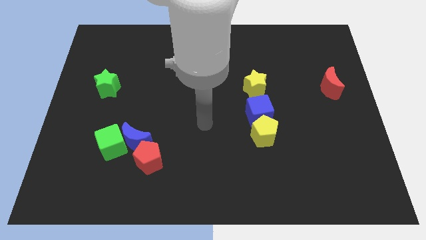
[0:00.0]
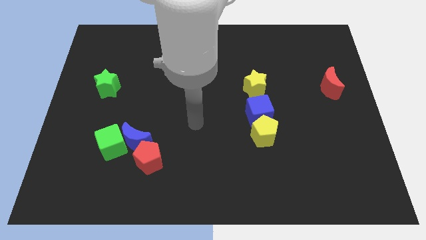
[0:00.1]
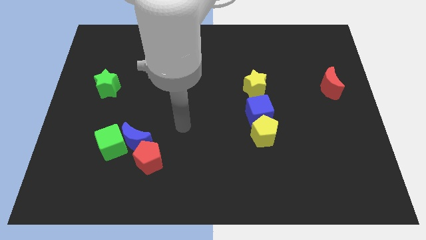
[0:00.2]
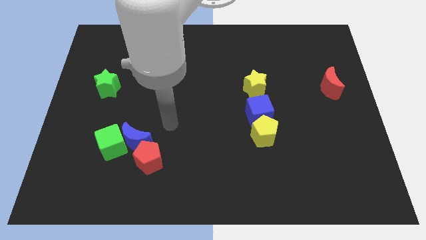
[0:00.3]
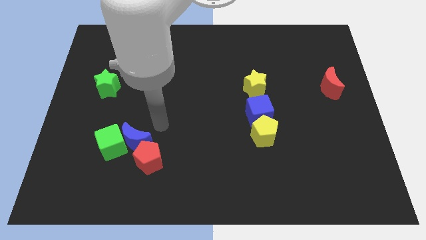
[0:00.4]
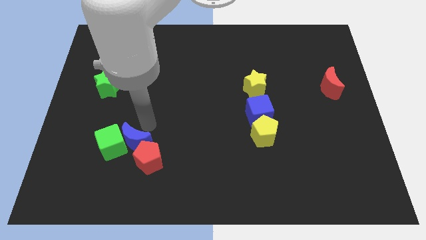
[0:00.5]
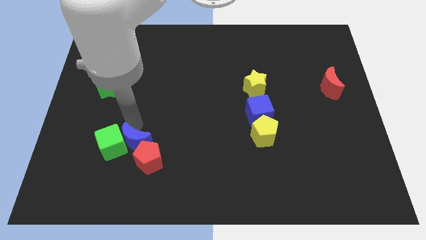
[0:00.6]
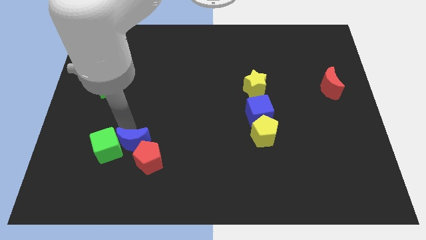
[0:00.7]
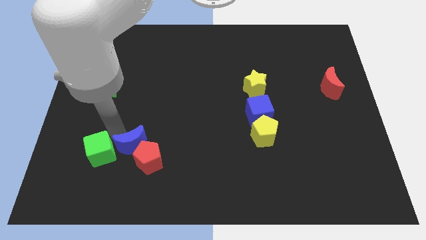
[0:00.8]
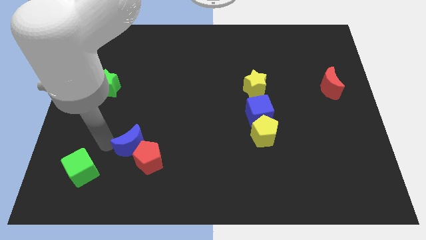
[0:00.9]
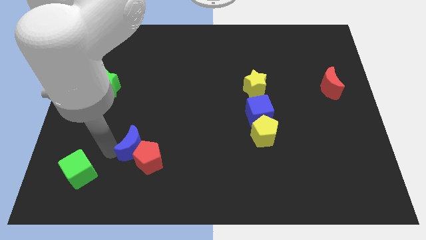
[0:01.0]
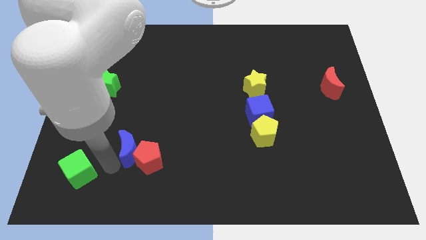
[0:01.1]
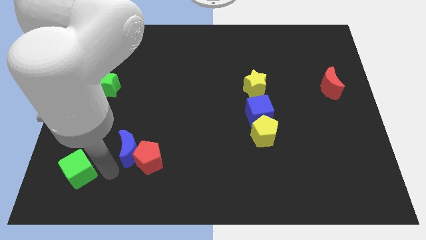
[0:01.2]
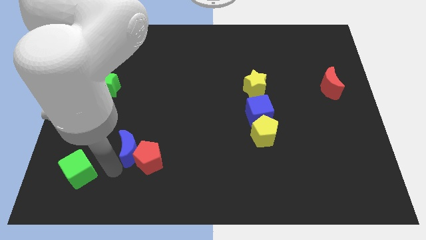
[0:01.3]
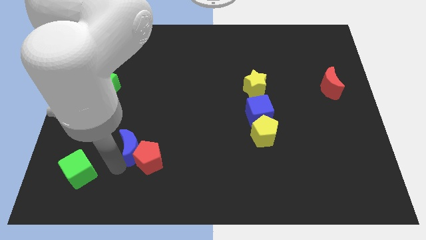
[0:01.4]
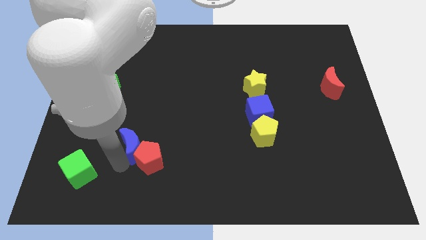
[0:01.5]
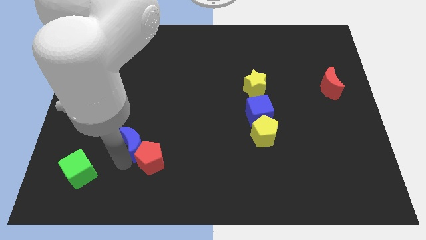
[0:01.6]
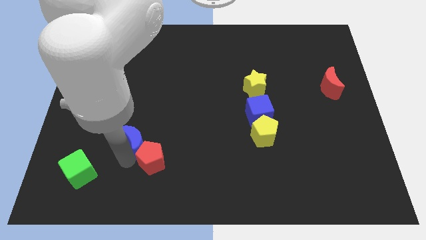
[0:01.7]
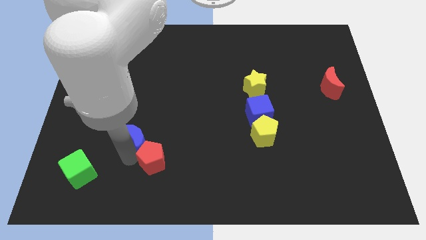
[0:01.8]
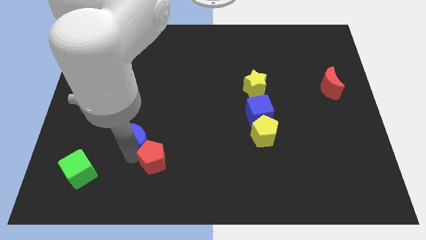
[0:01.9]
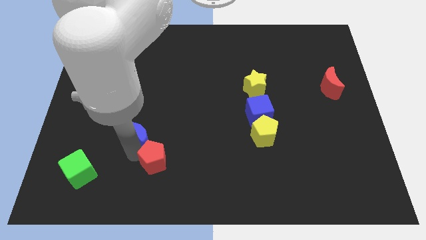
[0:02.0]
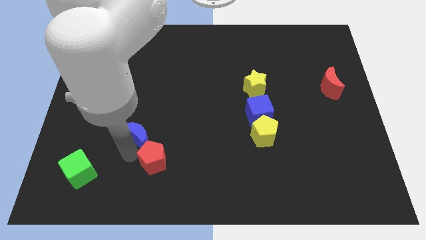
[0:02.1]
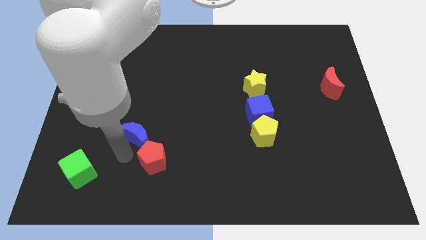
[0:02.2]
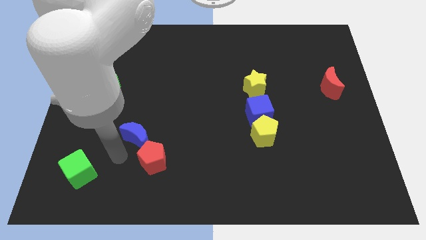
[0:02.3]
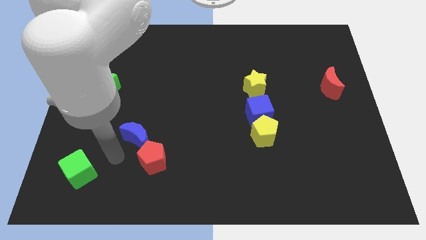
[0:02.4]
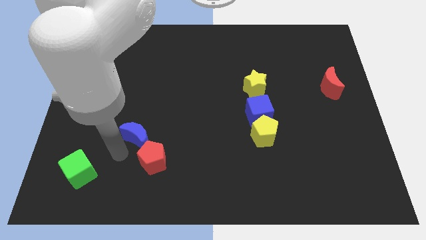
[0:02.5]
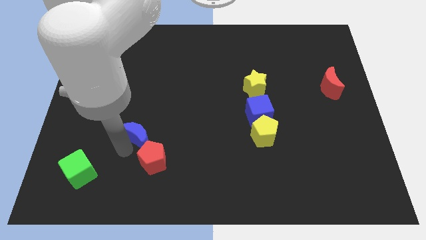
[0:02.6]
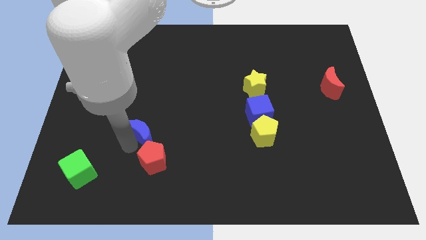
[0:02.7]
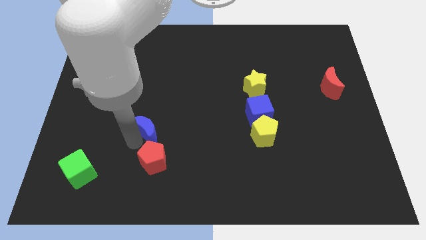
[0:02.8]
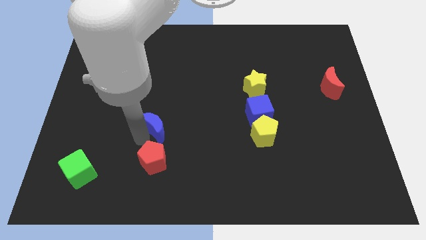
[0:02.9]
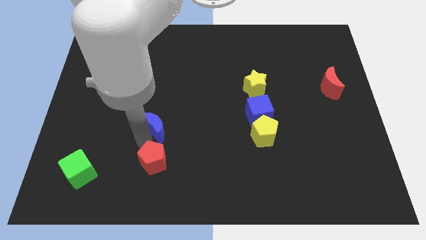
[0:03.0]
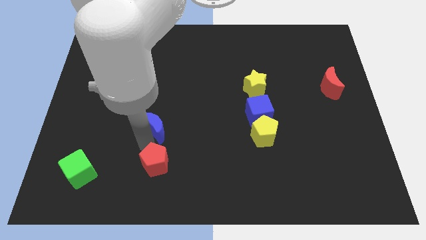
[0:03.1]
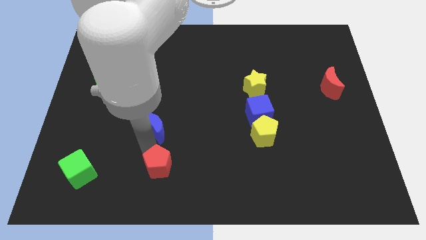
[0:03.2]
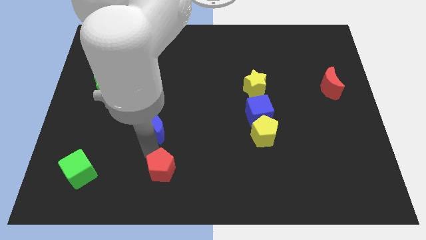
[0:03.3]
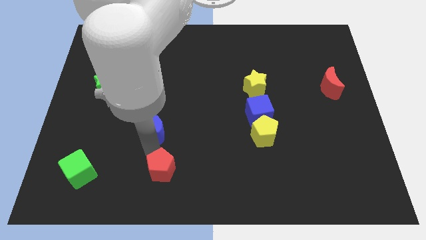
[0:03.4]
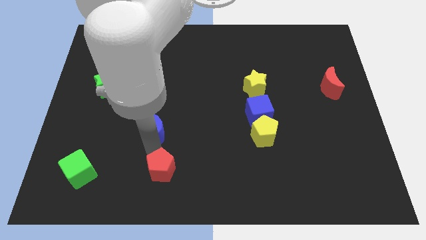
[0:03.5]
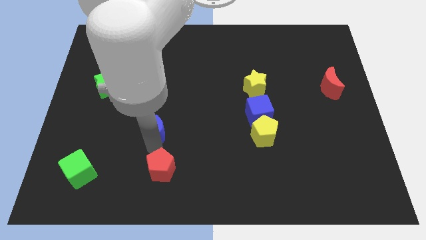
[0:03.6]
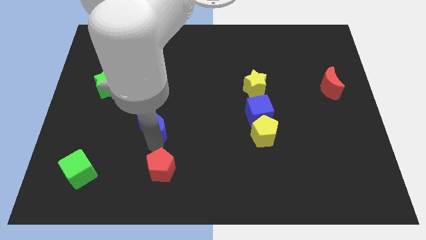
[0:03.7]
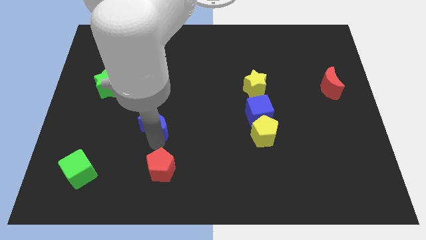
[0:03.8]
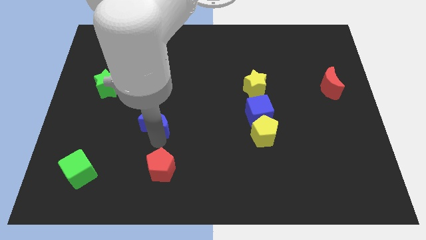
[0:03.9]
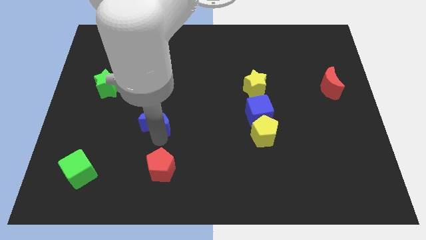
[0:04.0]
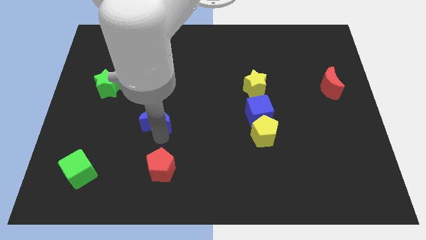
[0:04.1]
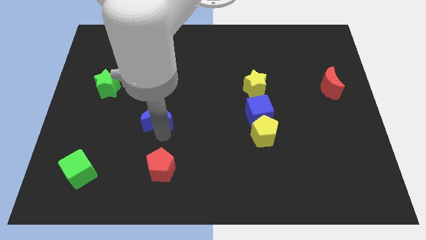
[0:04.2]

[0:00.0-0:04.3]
push the blue moon a little bit diagonally upwards and to the right

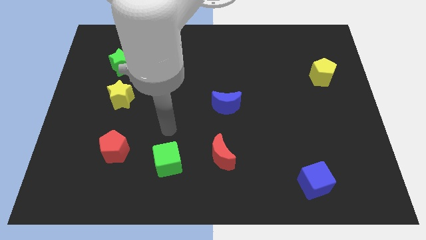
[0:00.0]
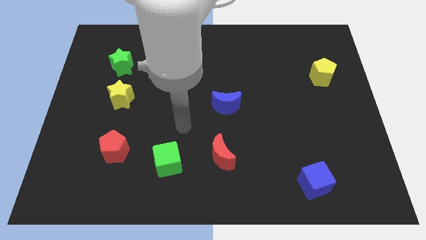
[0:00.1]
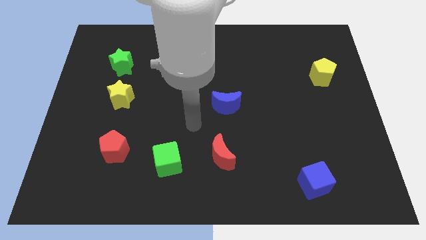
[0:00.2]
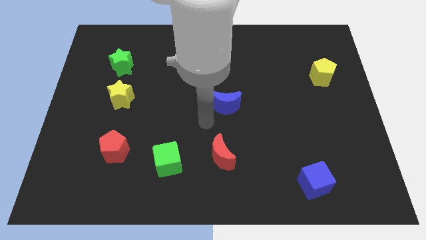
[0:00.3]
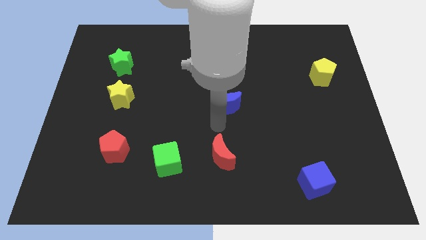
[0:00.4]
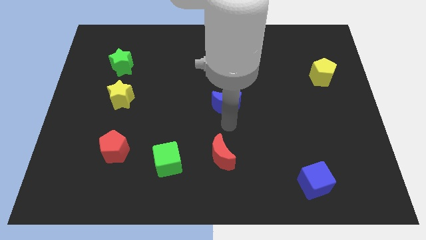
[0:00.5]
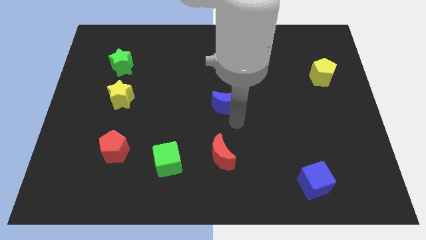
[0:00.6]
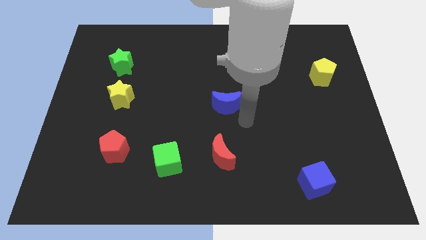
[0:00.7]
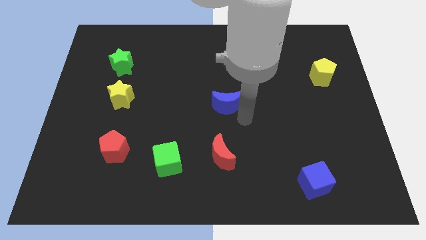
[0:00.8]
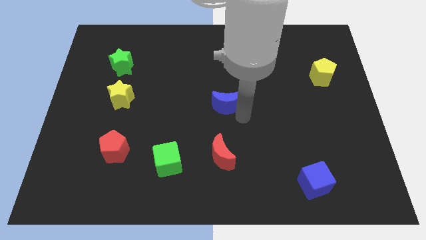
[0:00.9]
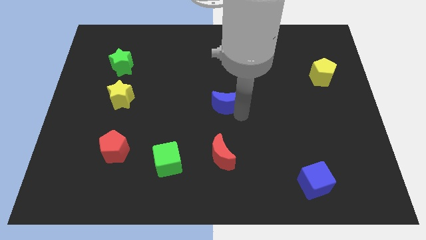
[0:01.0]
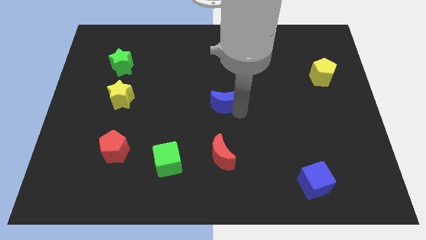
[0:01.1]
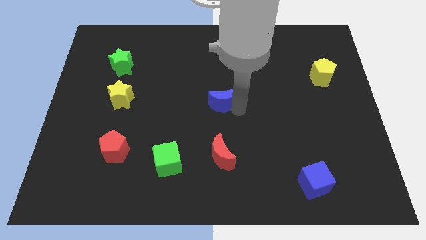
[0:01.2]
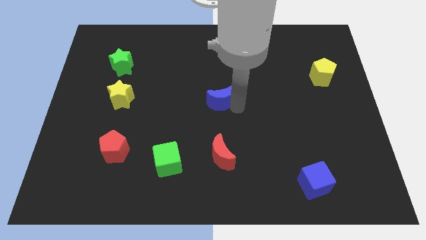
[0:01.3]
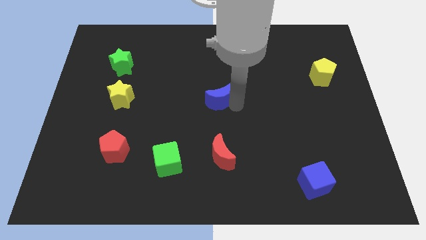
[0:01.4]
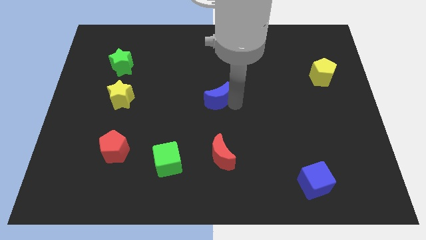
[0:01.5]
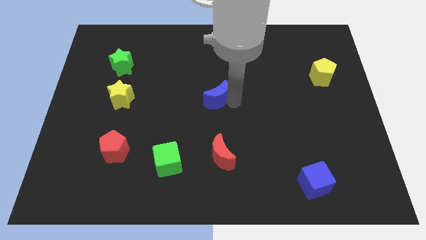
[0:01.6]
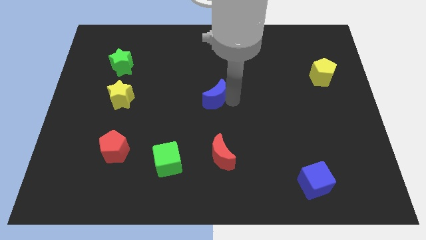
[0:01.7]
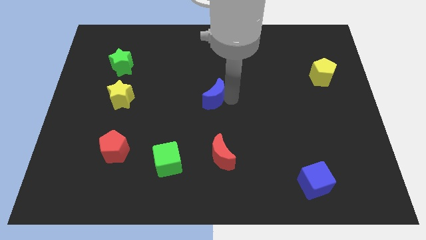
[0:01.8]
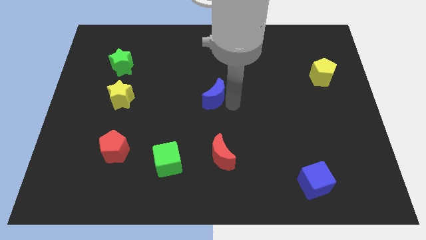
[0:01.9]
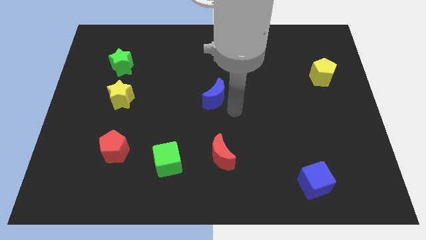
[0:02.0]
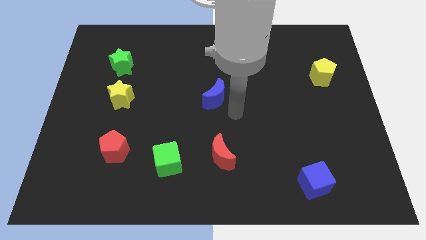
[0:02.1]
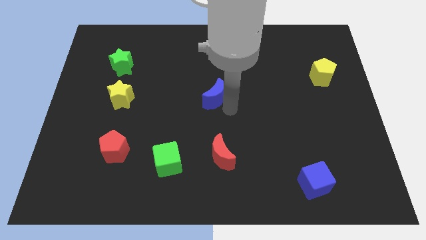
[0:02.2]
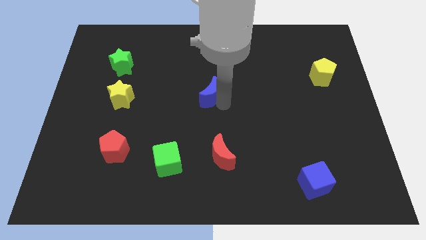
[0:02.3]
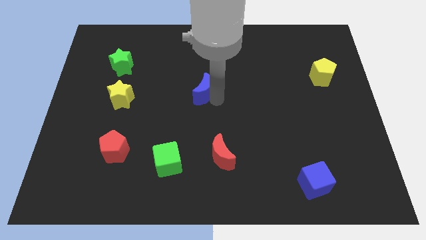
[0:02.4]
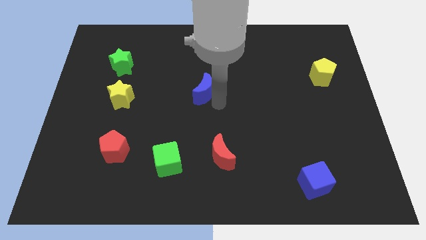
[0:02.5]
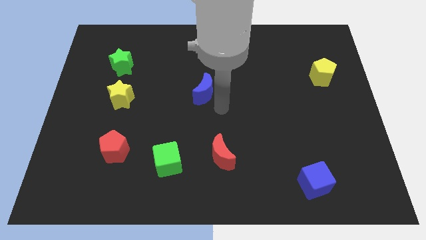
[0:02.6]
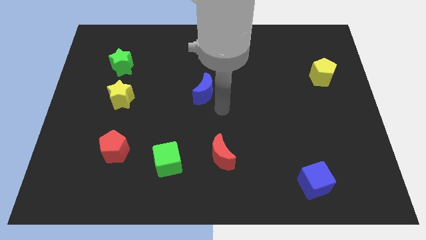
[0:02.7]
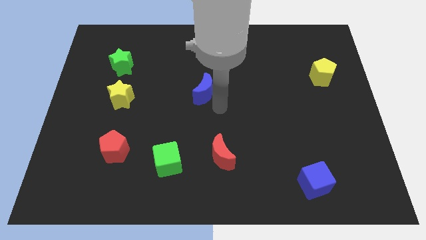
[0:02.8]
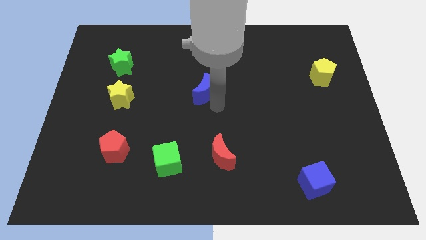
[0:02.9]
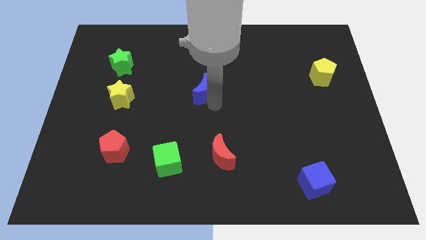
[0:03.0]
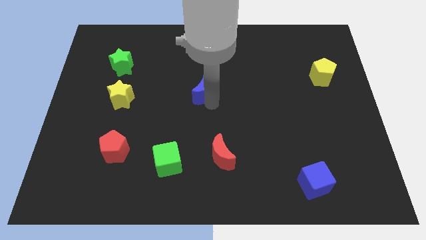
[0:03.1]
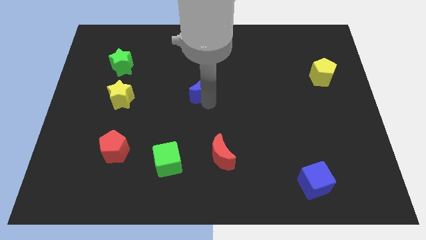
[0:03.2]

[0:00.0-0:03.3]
move the blue moon a little bit diagonally upwards and left

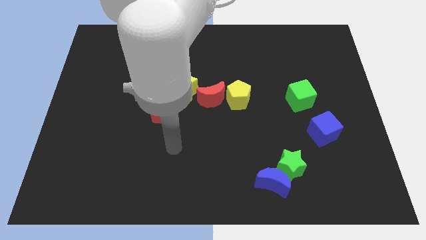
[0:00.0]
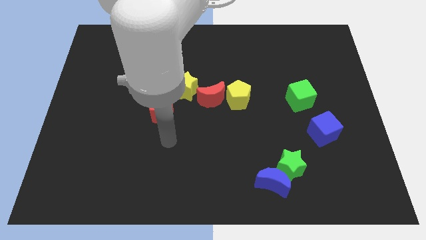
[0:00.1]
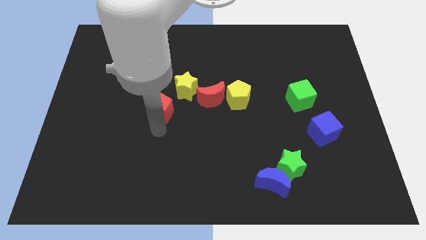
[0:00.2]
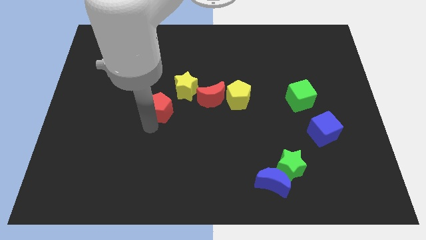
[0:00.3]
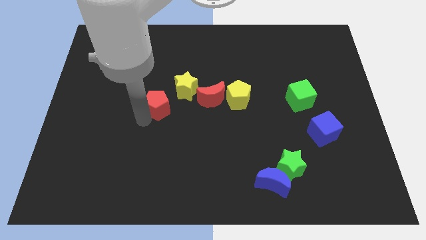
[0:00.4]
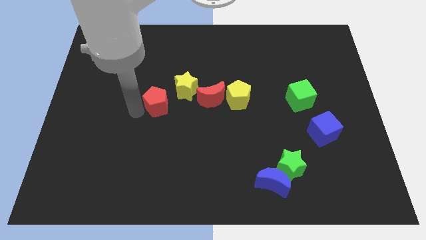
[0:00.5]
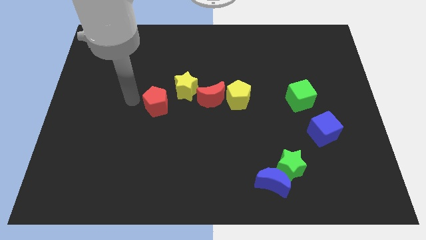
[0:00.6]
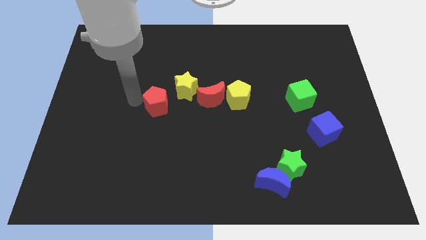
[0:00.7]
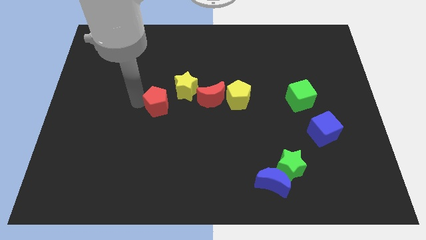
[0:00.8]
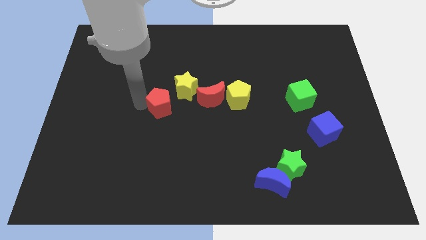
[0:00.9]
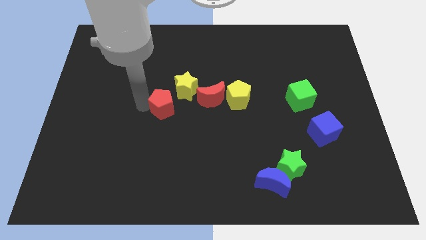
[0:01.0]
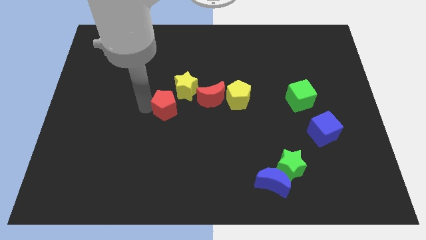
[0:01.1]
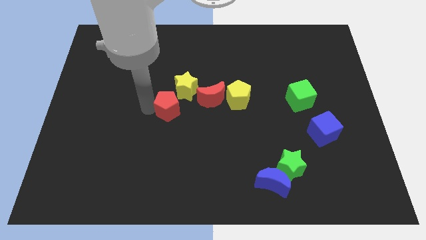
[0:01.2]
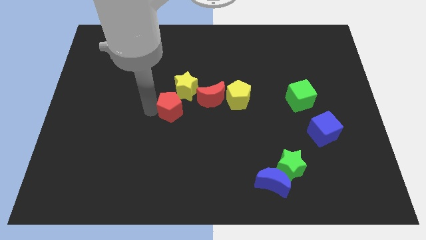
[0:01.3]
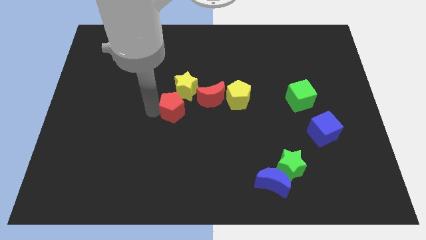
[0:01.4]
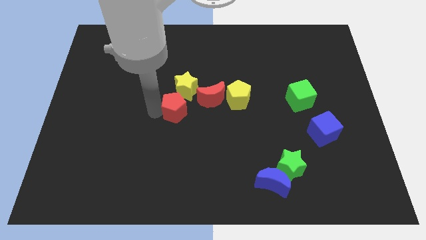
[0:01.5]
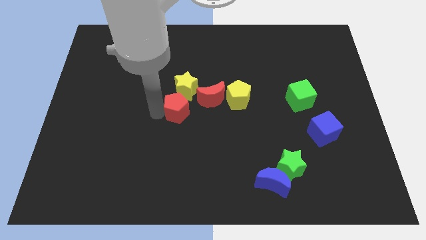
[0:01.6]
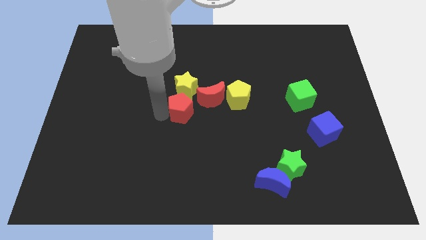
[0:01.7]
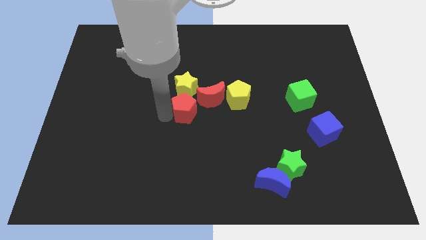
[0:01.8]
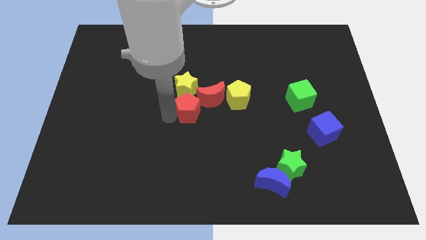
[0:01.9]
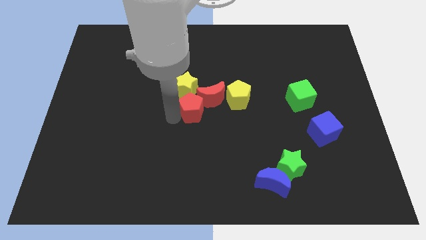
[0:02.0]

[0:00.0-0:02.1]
push the red pentagon a bit right
